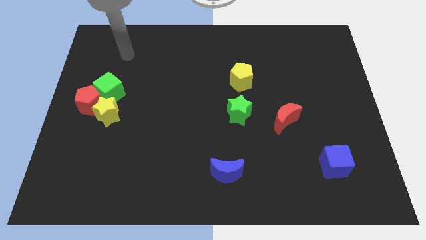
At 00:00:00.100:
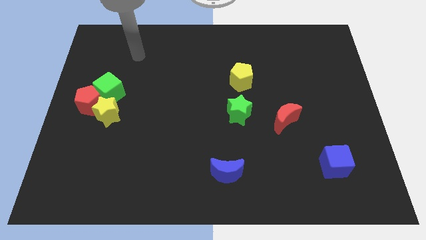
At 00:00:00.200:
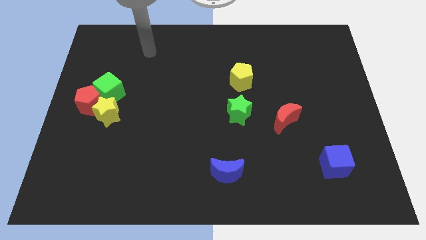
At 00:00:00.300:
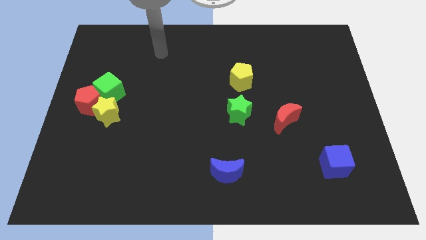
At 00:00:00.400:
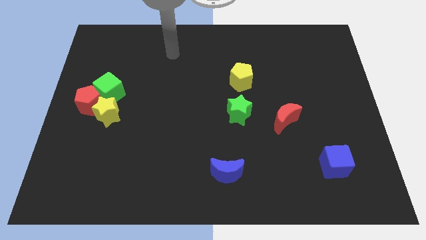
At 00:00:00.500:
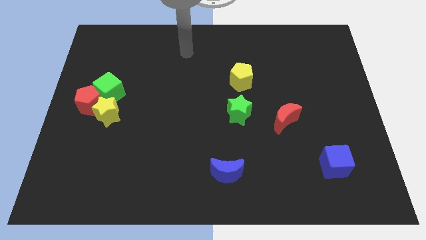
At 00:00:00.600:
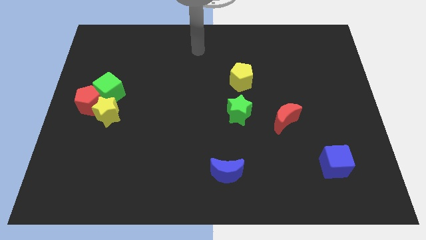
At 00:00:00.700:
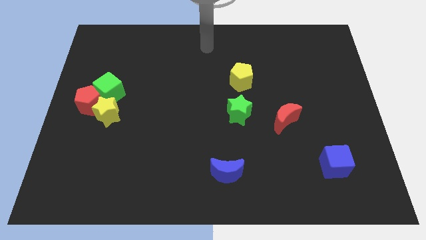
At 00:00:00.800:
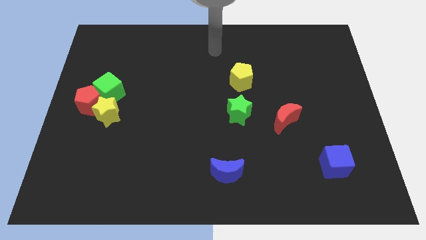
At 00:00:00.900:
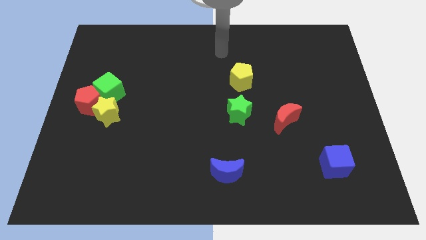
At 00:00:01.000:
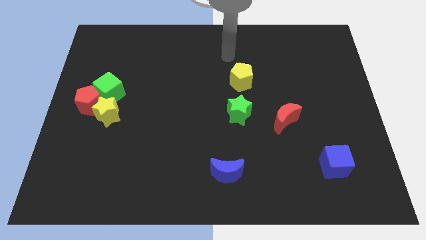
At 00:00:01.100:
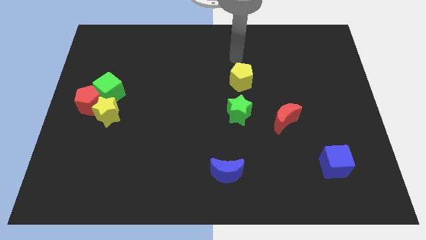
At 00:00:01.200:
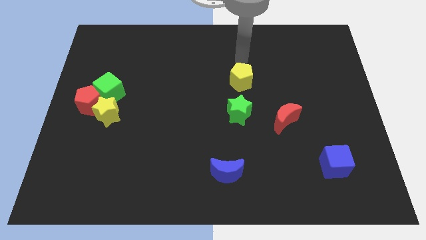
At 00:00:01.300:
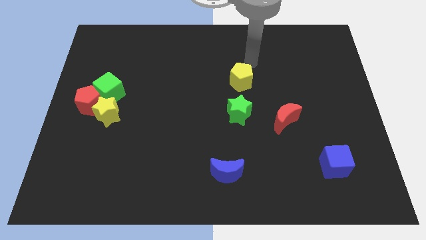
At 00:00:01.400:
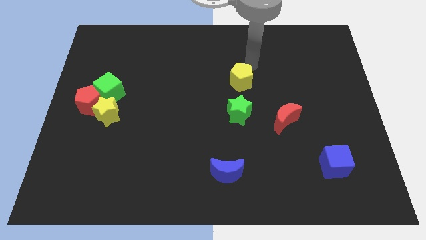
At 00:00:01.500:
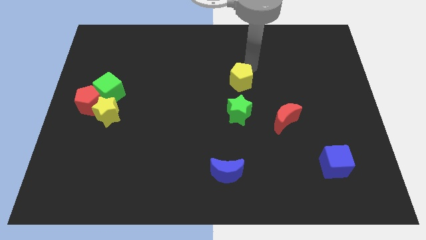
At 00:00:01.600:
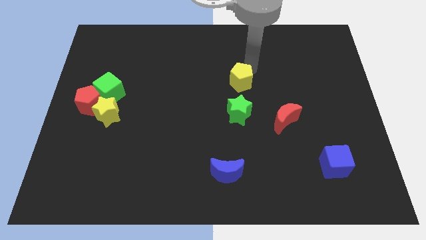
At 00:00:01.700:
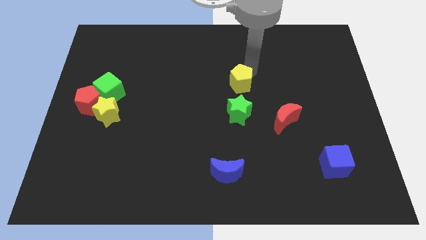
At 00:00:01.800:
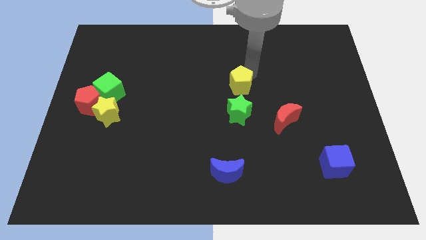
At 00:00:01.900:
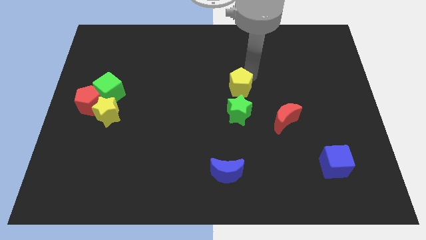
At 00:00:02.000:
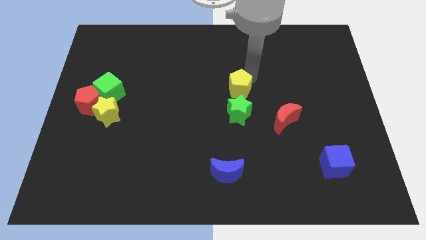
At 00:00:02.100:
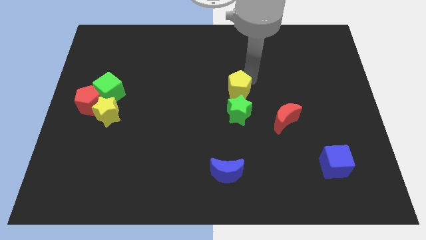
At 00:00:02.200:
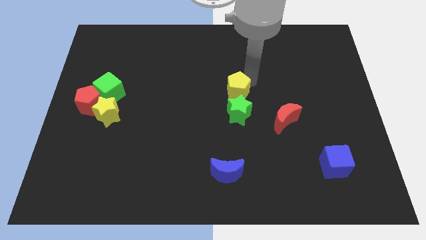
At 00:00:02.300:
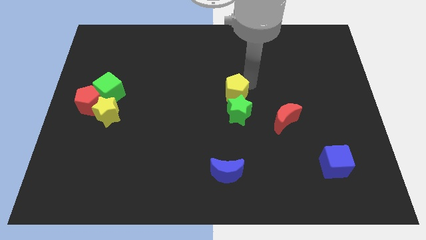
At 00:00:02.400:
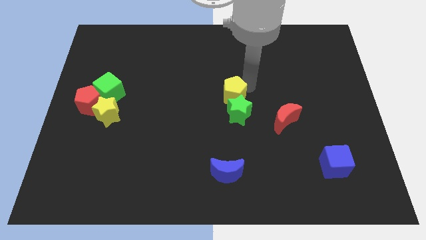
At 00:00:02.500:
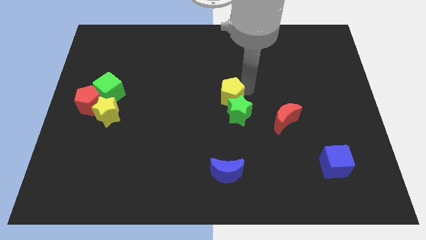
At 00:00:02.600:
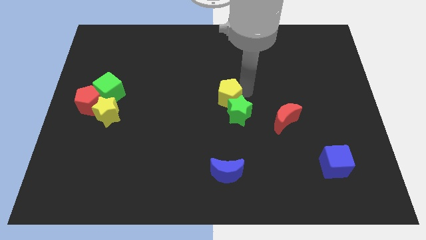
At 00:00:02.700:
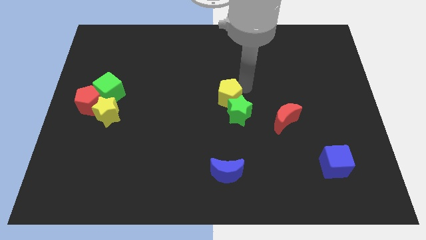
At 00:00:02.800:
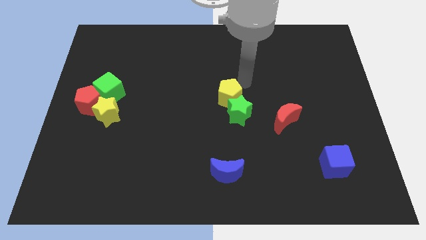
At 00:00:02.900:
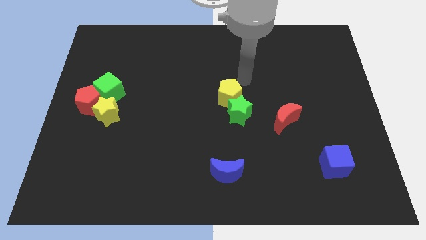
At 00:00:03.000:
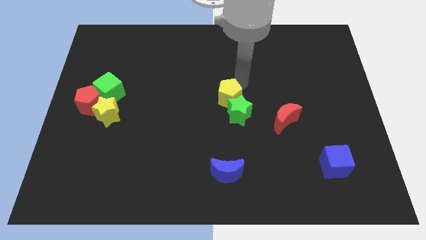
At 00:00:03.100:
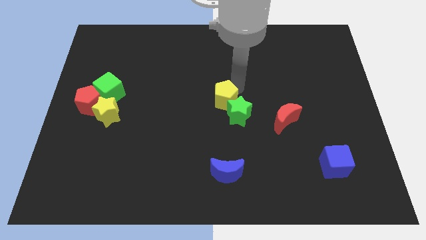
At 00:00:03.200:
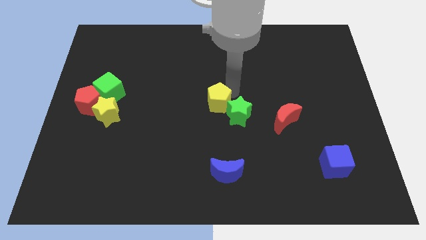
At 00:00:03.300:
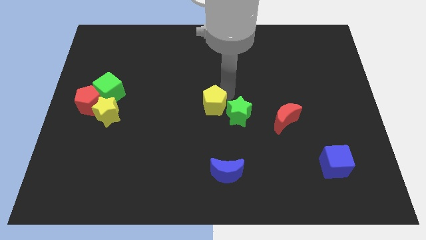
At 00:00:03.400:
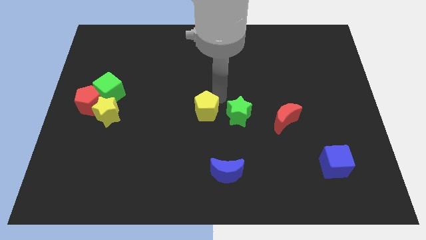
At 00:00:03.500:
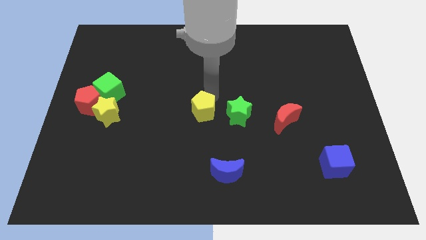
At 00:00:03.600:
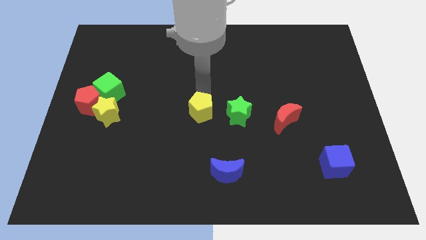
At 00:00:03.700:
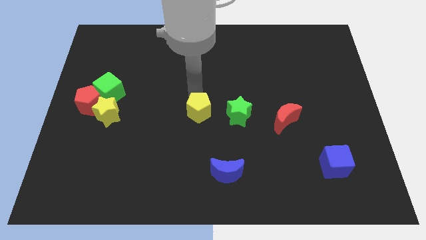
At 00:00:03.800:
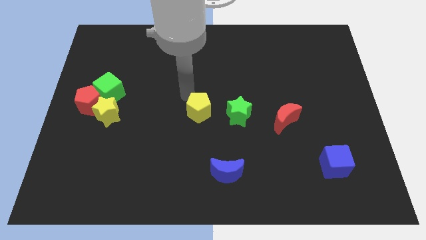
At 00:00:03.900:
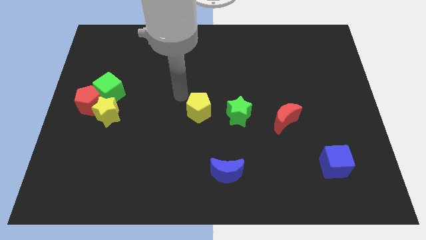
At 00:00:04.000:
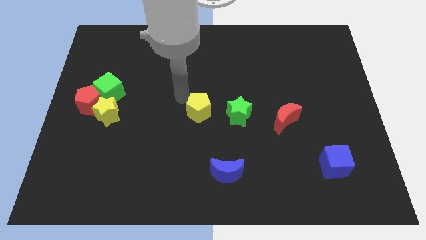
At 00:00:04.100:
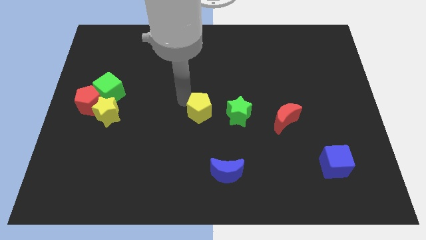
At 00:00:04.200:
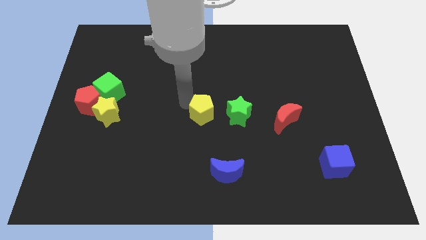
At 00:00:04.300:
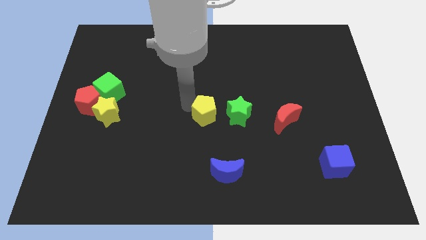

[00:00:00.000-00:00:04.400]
push the yellow pentagon down a little

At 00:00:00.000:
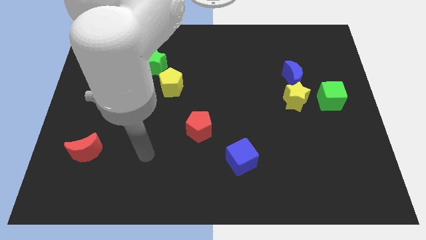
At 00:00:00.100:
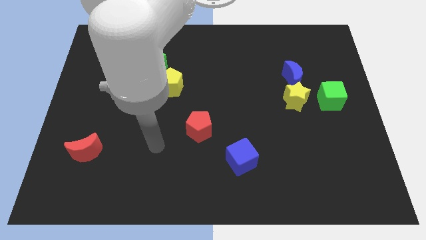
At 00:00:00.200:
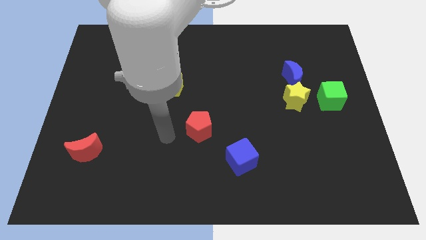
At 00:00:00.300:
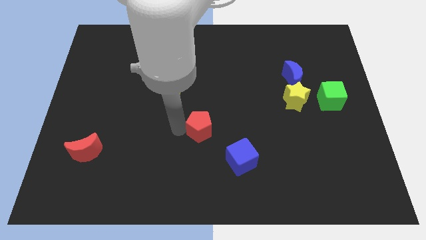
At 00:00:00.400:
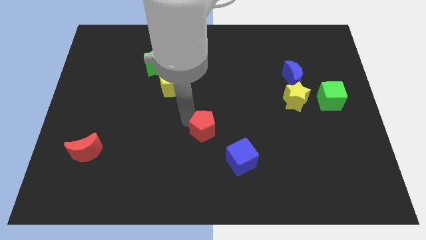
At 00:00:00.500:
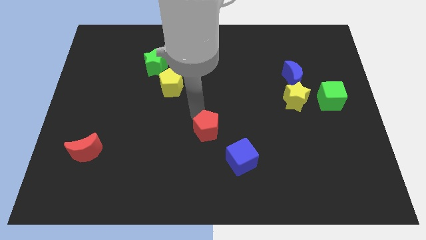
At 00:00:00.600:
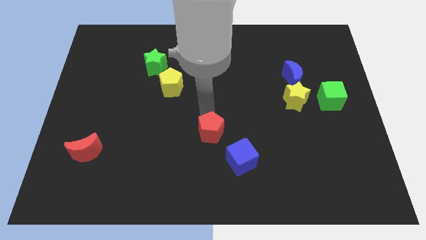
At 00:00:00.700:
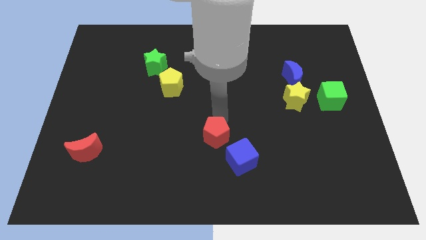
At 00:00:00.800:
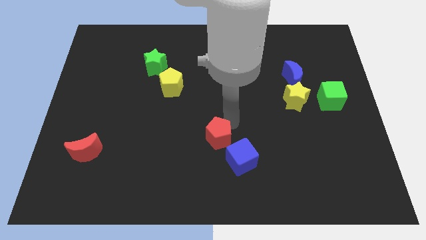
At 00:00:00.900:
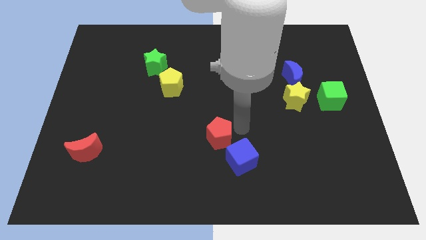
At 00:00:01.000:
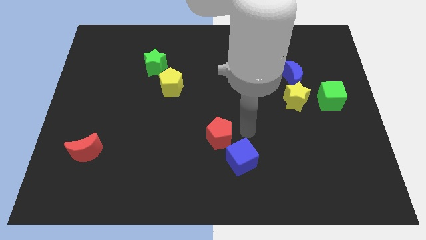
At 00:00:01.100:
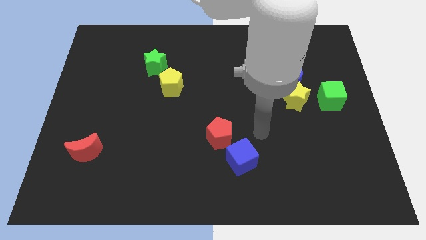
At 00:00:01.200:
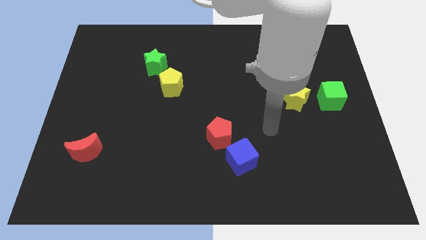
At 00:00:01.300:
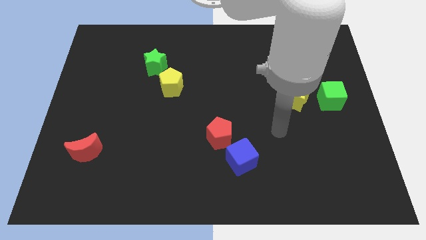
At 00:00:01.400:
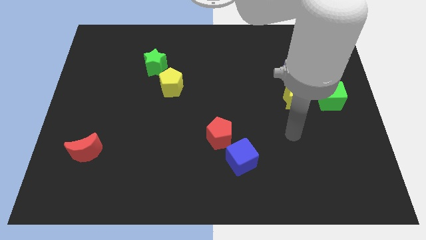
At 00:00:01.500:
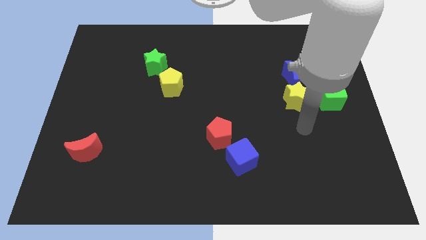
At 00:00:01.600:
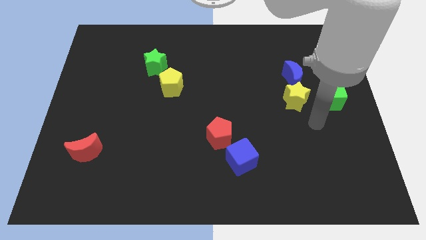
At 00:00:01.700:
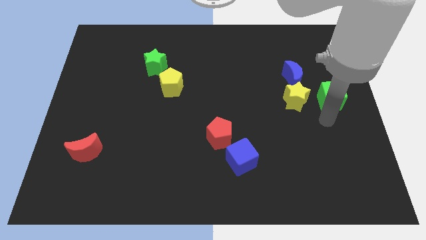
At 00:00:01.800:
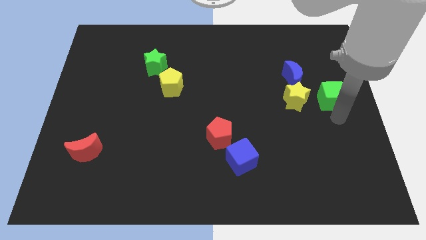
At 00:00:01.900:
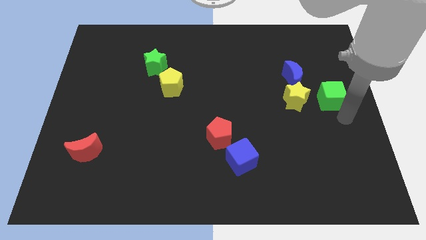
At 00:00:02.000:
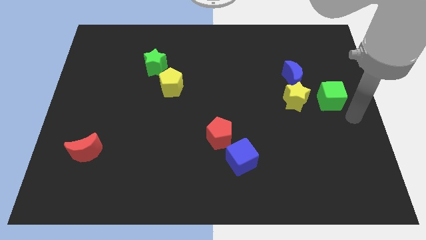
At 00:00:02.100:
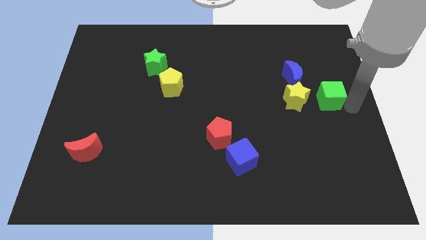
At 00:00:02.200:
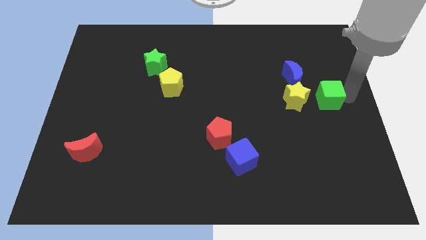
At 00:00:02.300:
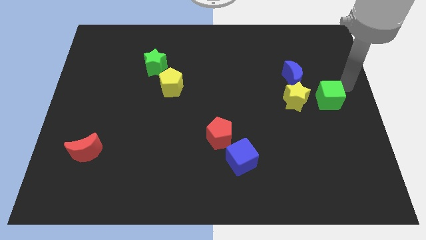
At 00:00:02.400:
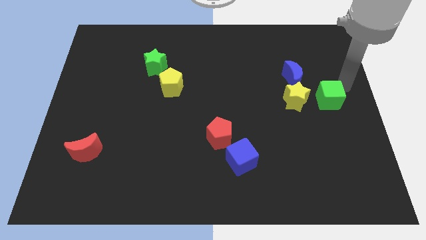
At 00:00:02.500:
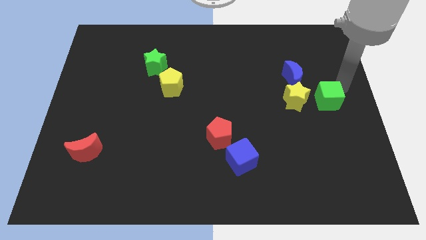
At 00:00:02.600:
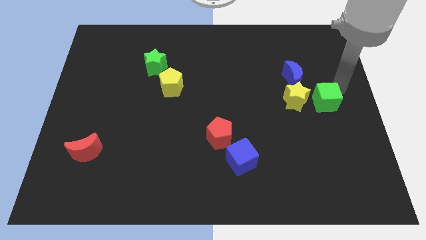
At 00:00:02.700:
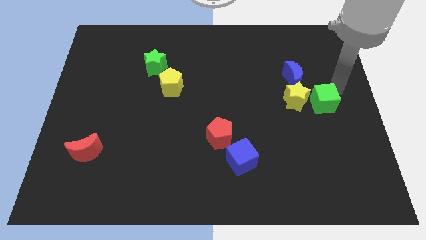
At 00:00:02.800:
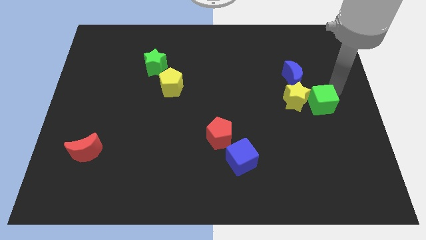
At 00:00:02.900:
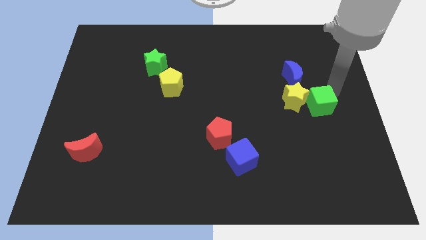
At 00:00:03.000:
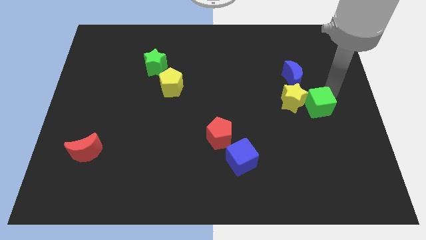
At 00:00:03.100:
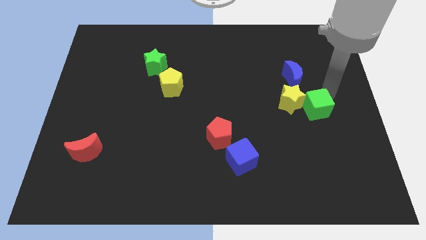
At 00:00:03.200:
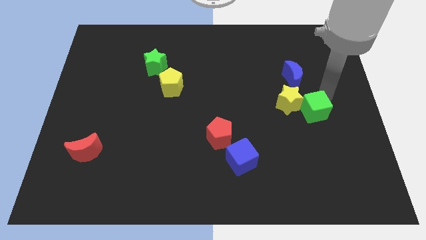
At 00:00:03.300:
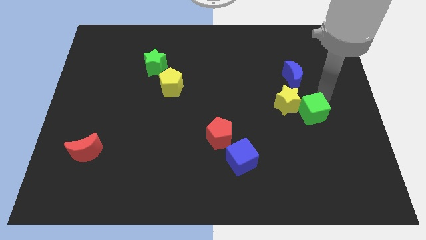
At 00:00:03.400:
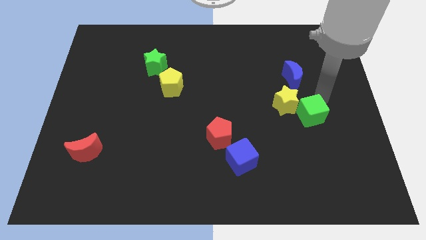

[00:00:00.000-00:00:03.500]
slide the green cube slightly diagonally down and to the left

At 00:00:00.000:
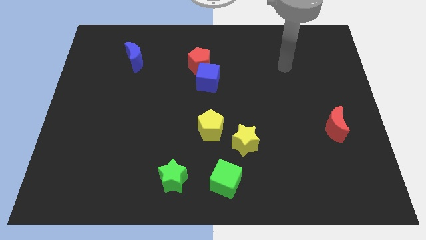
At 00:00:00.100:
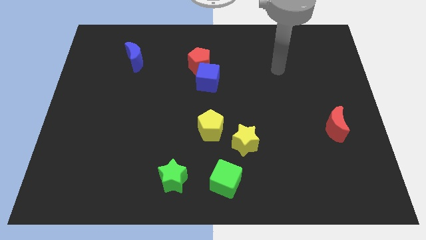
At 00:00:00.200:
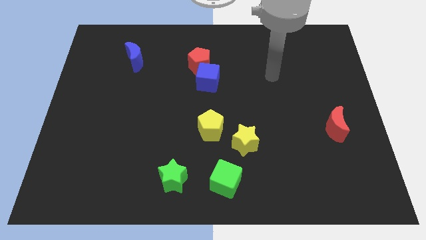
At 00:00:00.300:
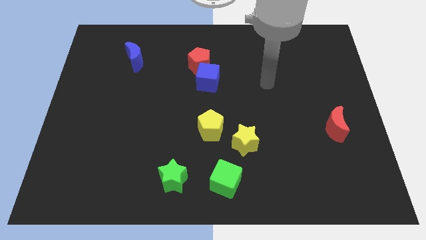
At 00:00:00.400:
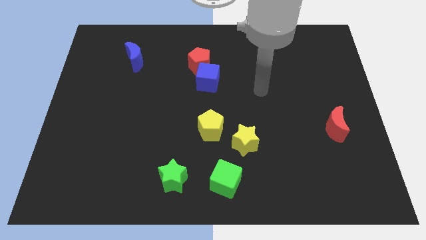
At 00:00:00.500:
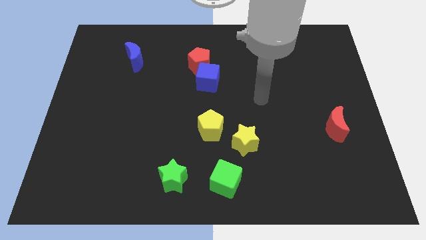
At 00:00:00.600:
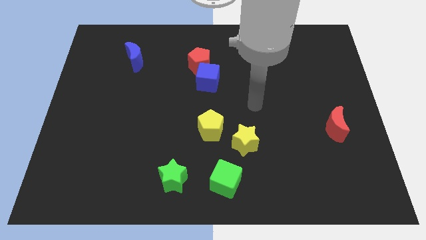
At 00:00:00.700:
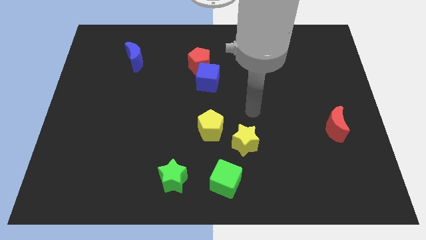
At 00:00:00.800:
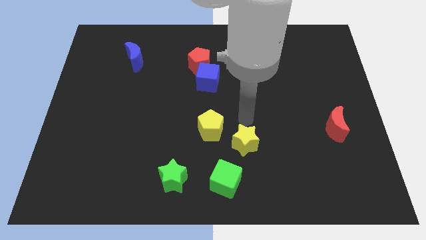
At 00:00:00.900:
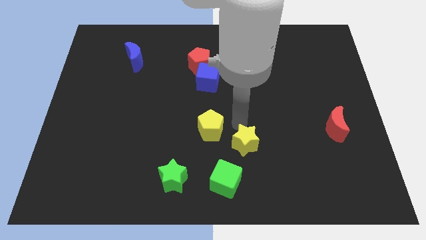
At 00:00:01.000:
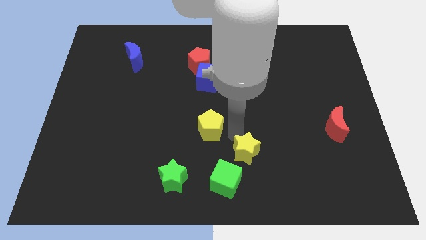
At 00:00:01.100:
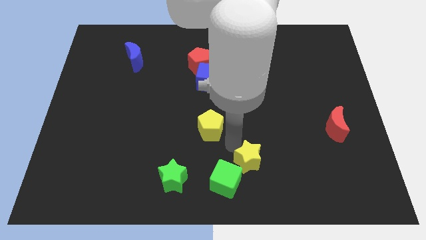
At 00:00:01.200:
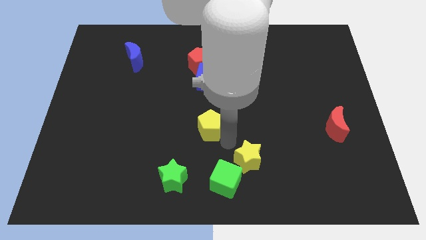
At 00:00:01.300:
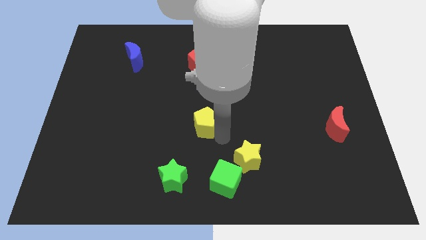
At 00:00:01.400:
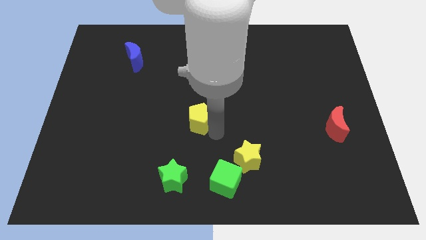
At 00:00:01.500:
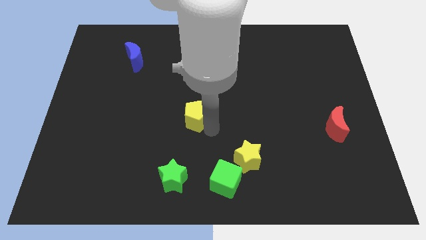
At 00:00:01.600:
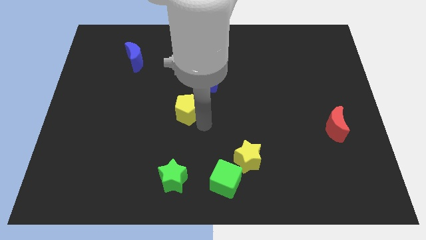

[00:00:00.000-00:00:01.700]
move the yellow pentagon a little upwards and left
